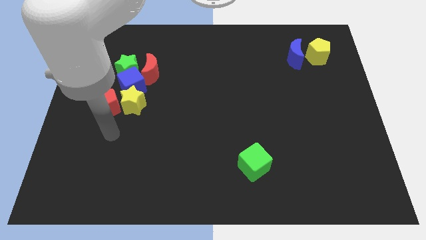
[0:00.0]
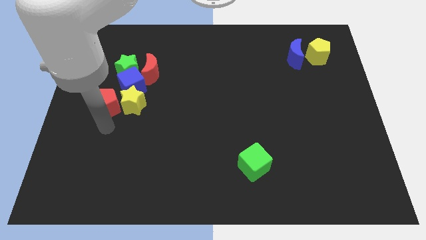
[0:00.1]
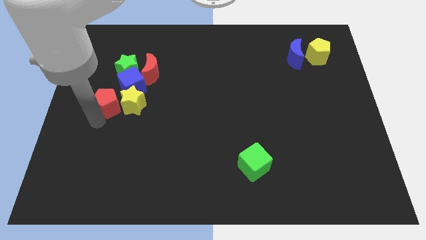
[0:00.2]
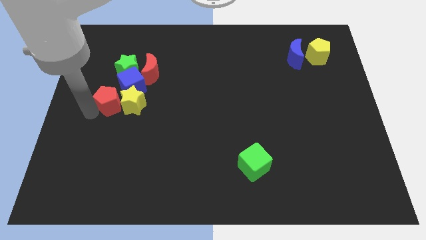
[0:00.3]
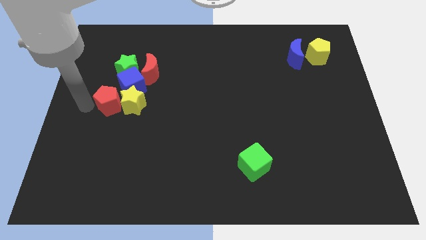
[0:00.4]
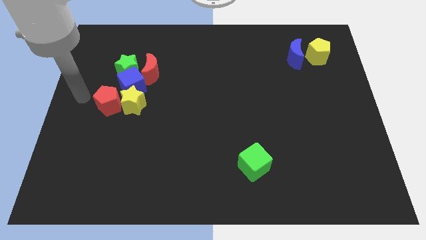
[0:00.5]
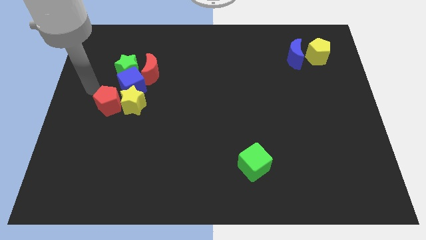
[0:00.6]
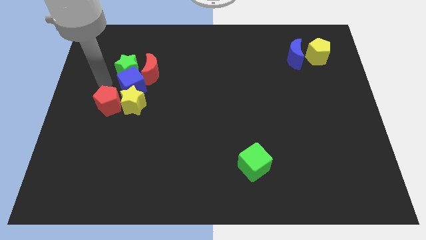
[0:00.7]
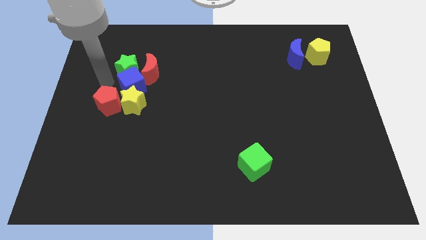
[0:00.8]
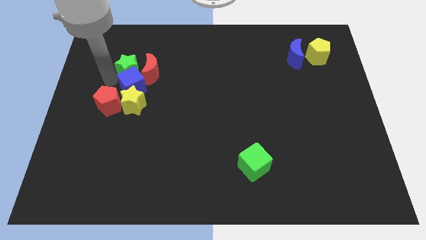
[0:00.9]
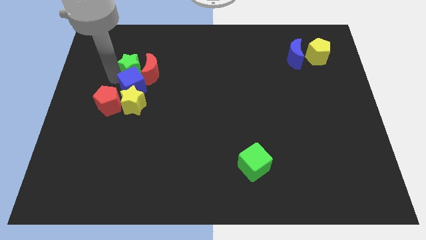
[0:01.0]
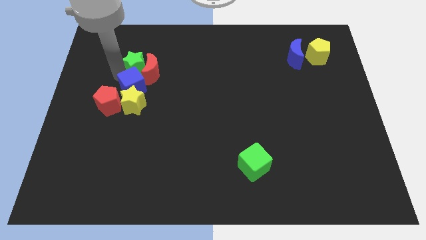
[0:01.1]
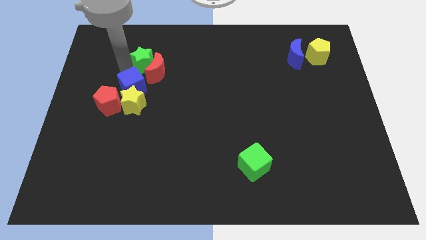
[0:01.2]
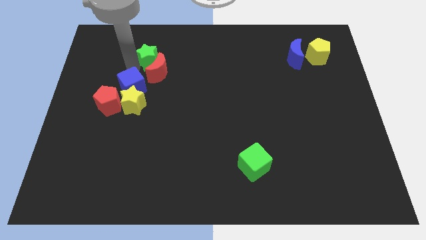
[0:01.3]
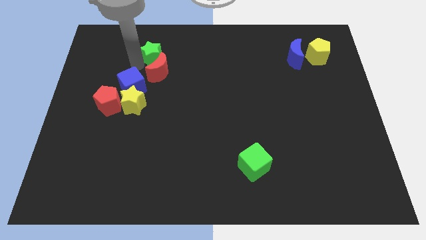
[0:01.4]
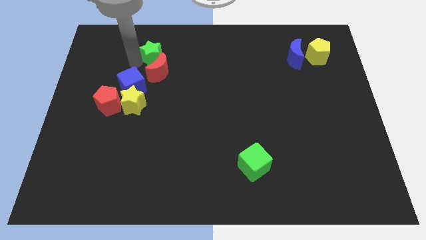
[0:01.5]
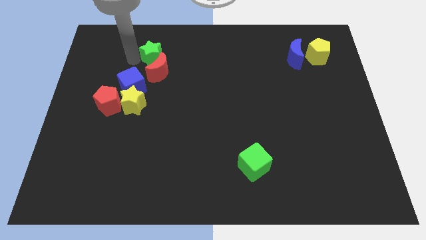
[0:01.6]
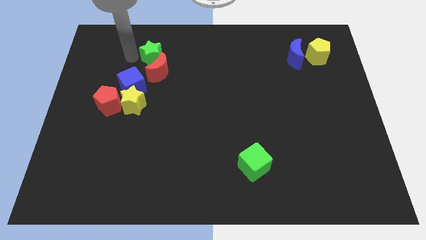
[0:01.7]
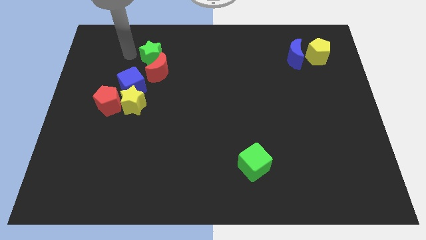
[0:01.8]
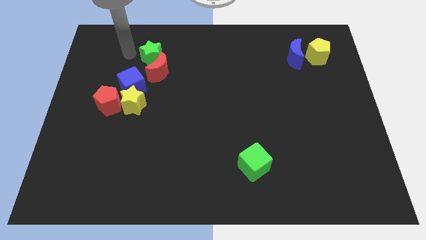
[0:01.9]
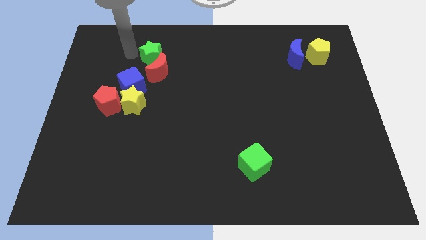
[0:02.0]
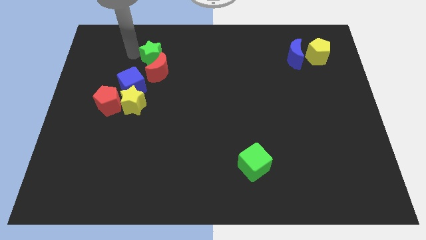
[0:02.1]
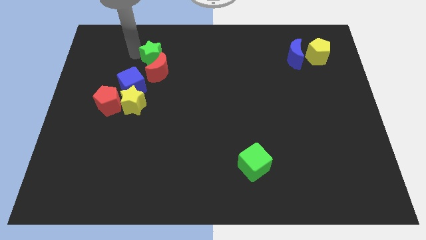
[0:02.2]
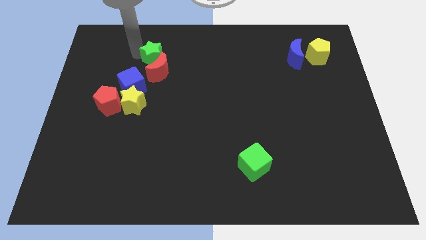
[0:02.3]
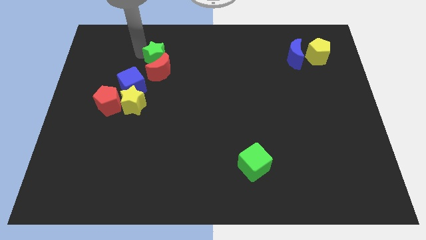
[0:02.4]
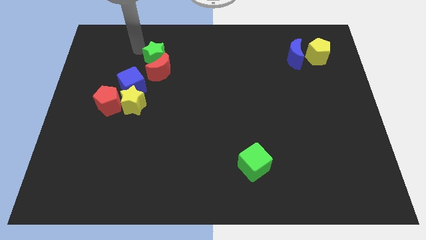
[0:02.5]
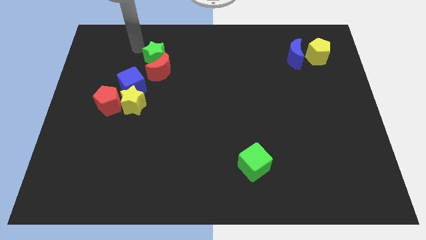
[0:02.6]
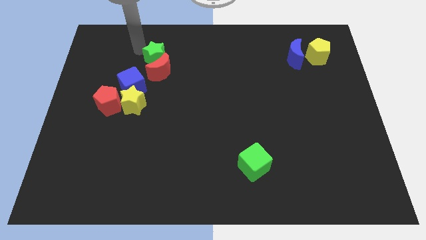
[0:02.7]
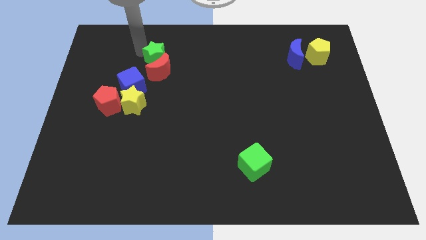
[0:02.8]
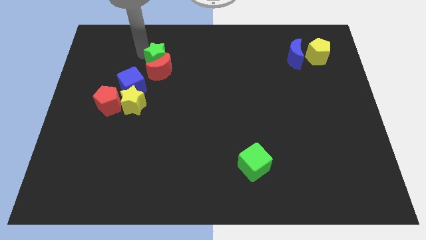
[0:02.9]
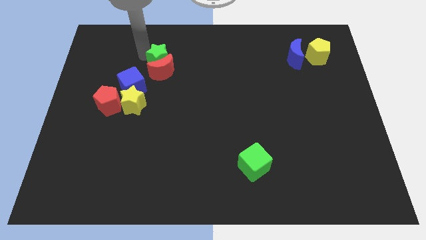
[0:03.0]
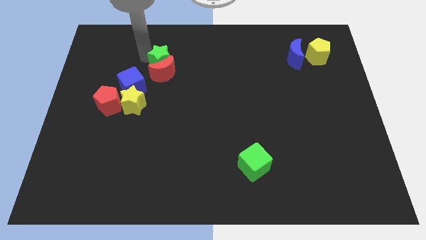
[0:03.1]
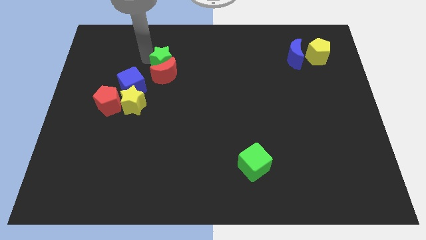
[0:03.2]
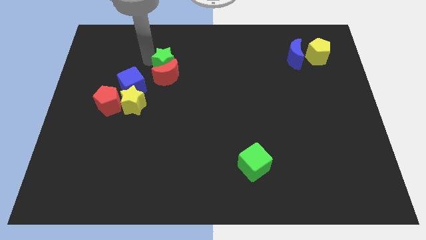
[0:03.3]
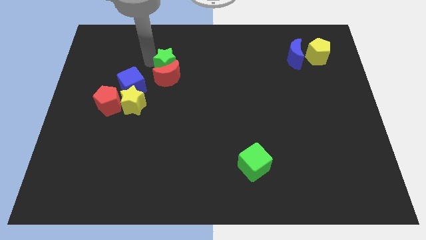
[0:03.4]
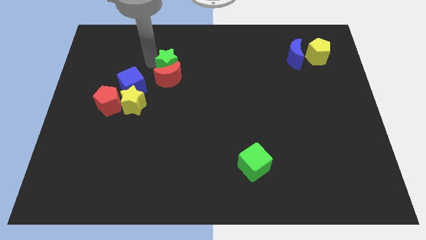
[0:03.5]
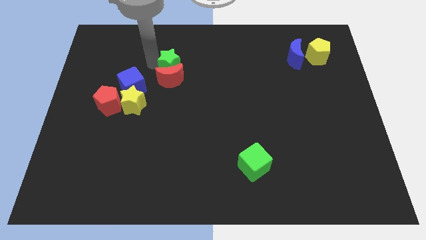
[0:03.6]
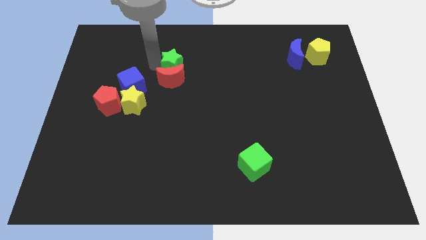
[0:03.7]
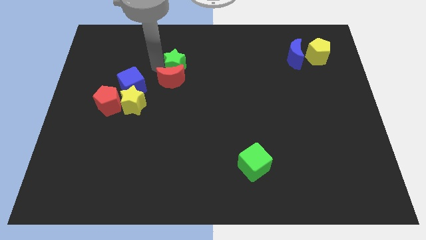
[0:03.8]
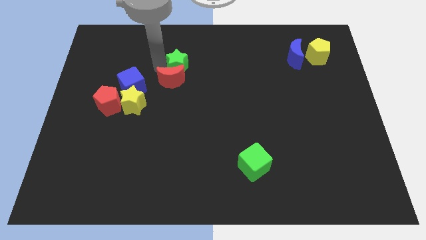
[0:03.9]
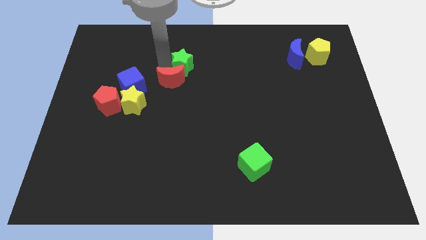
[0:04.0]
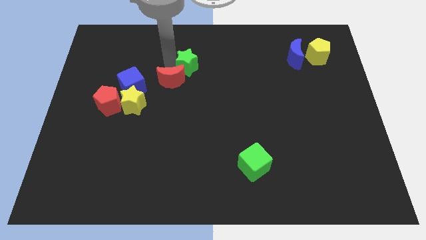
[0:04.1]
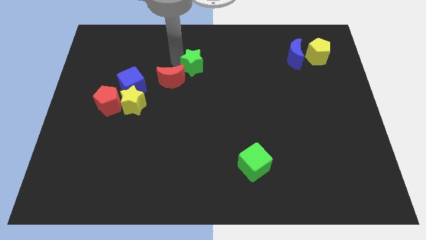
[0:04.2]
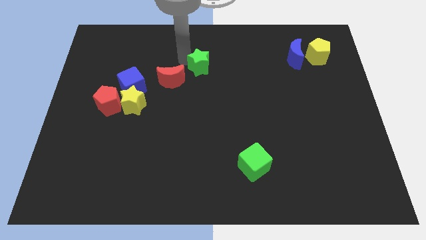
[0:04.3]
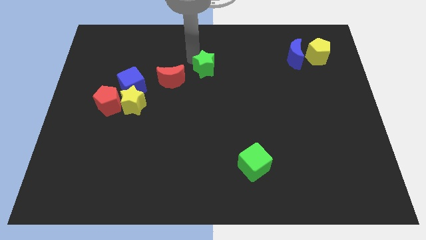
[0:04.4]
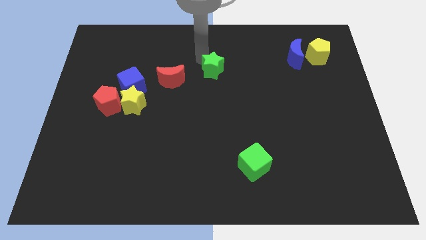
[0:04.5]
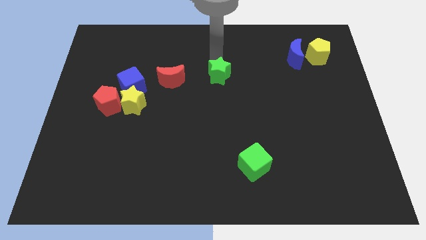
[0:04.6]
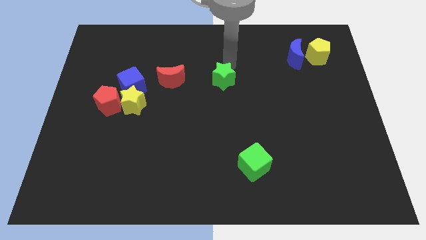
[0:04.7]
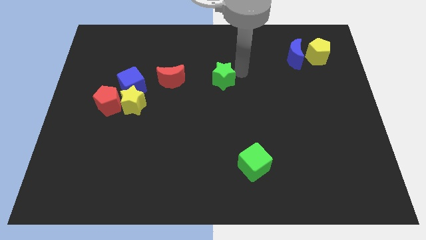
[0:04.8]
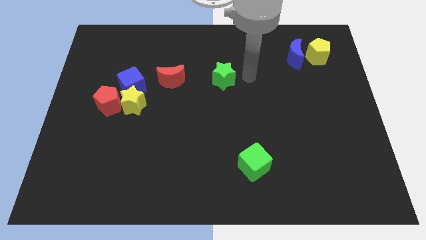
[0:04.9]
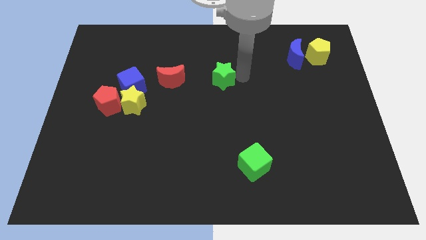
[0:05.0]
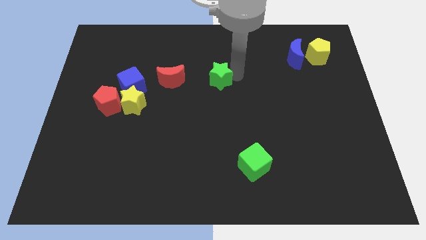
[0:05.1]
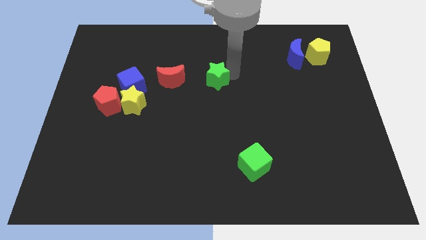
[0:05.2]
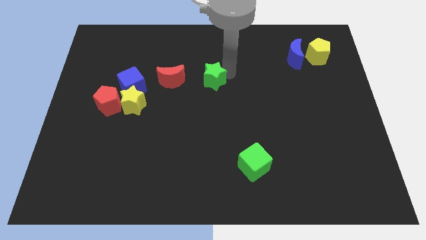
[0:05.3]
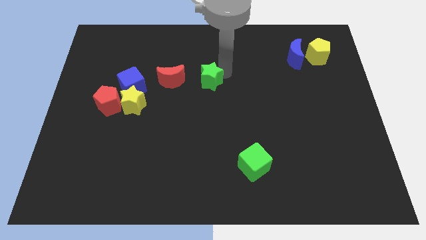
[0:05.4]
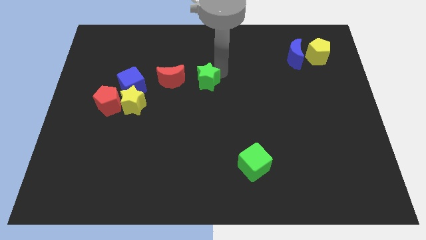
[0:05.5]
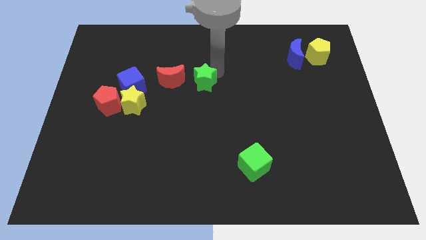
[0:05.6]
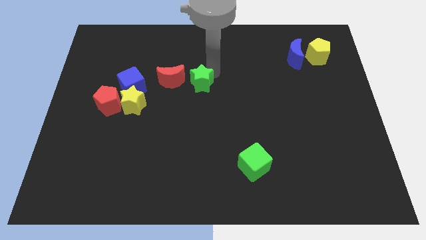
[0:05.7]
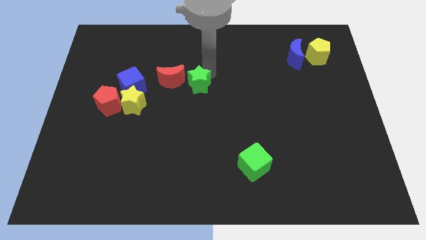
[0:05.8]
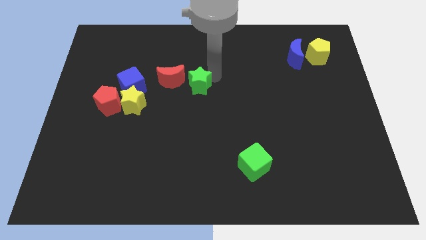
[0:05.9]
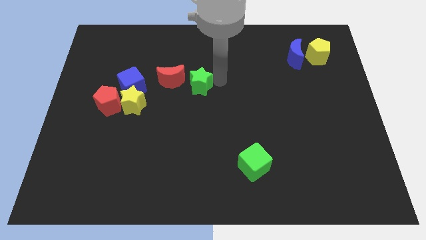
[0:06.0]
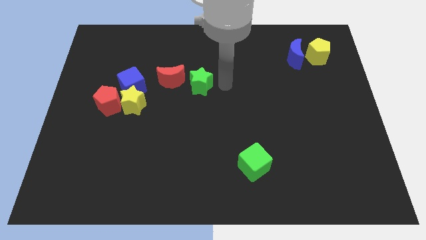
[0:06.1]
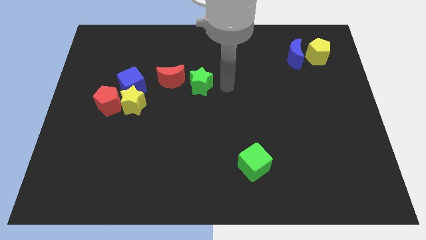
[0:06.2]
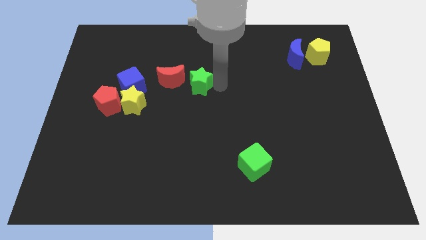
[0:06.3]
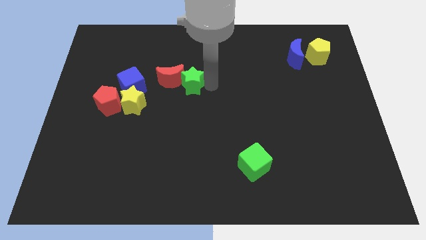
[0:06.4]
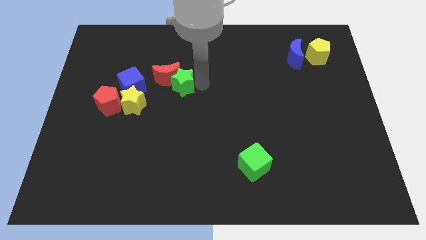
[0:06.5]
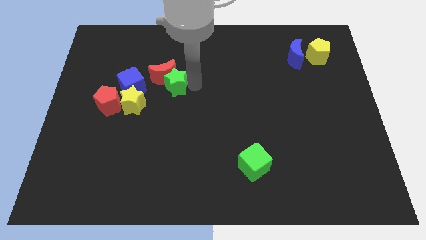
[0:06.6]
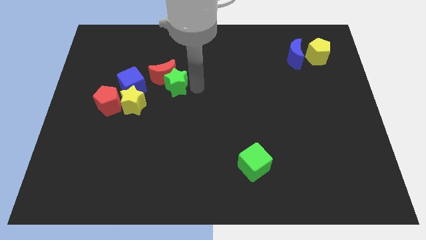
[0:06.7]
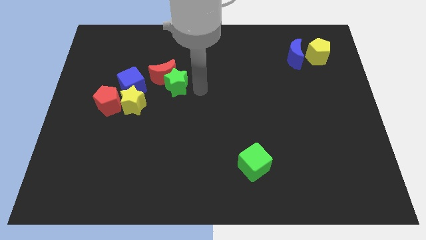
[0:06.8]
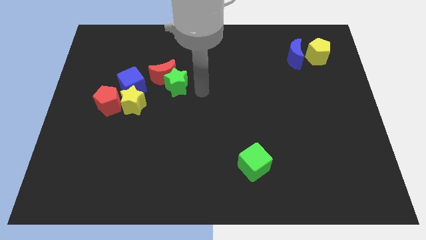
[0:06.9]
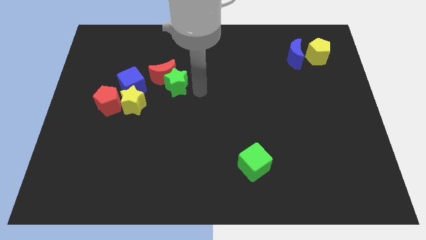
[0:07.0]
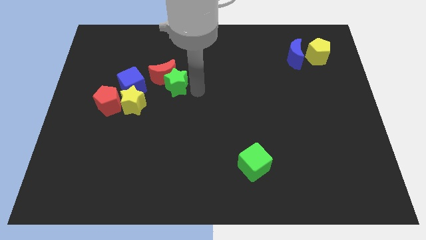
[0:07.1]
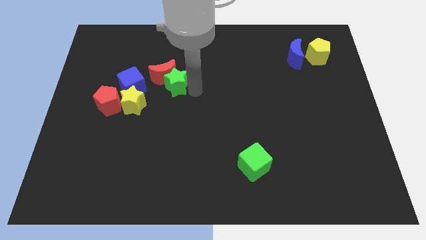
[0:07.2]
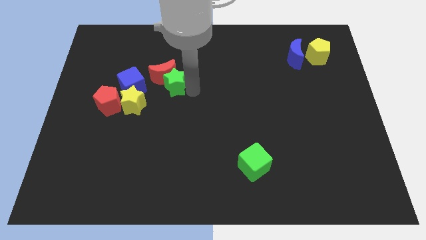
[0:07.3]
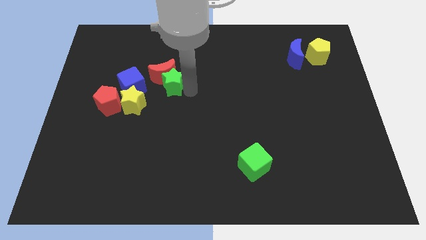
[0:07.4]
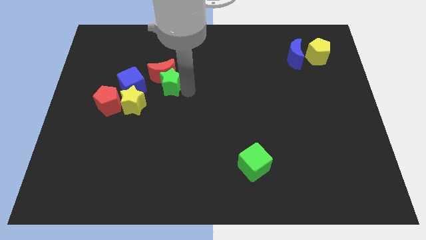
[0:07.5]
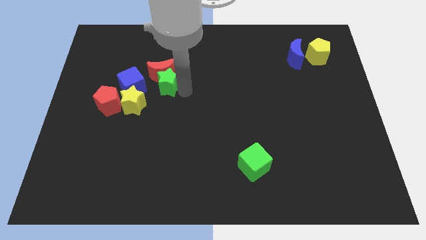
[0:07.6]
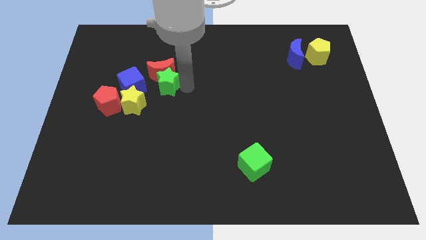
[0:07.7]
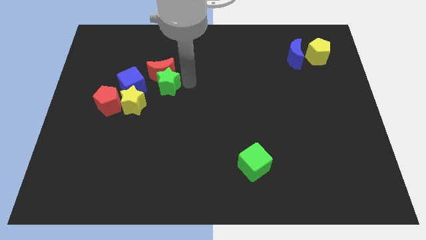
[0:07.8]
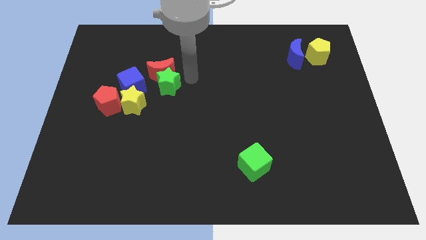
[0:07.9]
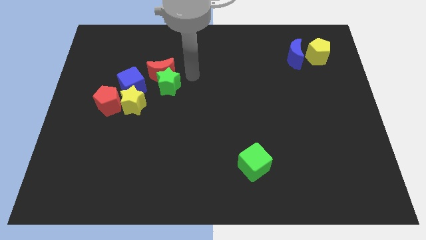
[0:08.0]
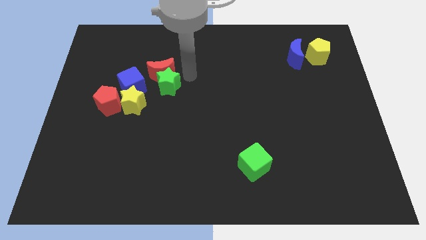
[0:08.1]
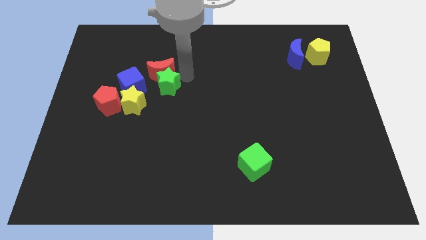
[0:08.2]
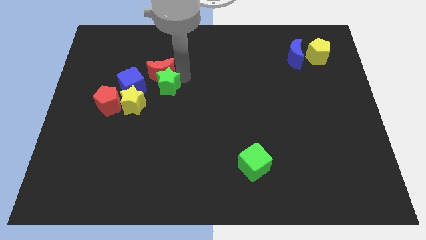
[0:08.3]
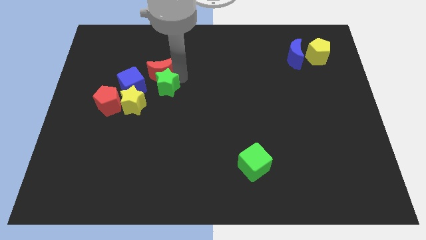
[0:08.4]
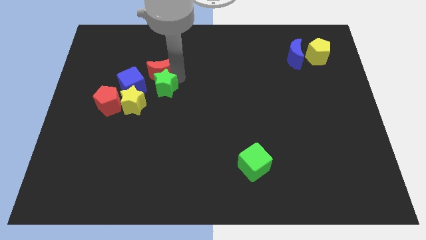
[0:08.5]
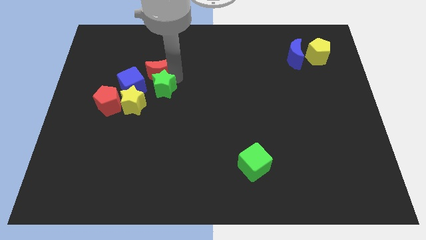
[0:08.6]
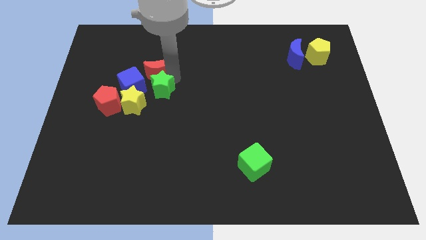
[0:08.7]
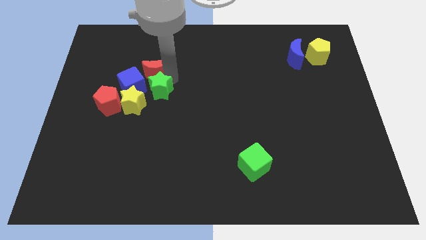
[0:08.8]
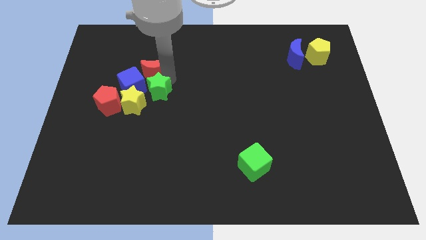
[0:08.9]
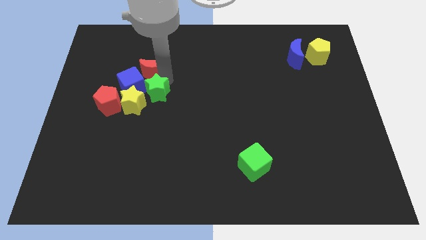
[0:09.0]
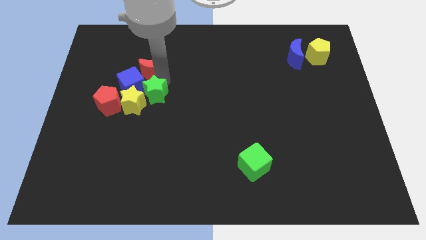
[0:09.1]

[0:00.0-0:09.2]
slide the green star next to the yellow star
